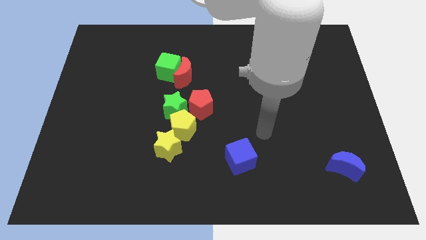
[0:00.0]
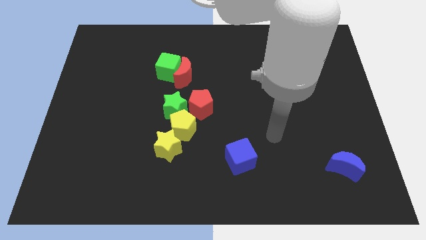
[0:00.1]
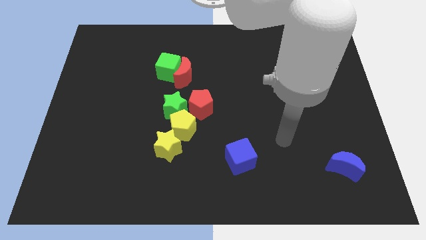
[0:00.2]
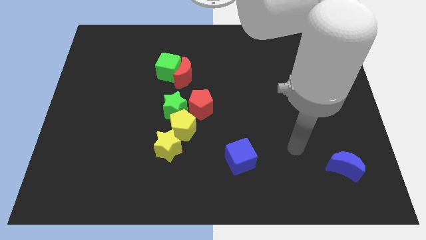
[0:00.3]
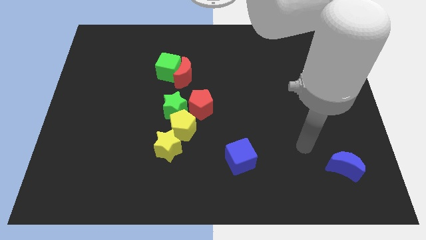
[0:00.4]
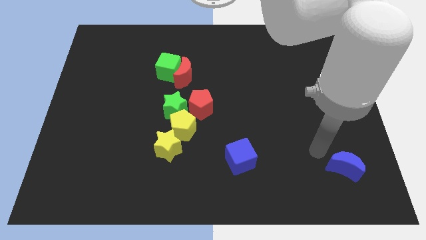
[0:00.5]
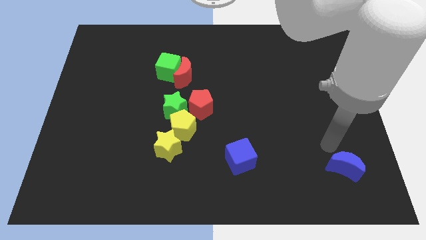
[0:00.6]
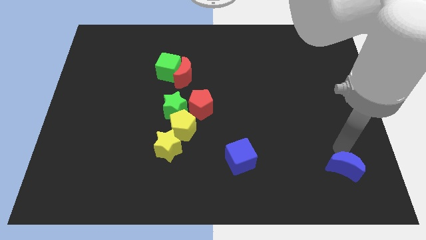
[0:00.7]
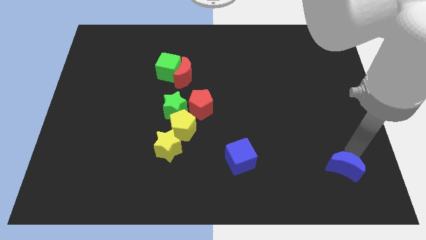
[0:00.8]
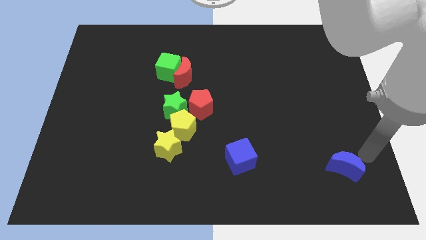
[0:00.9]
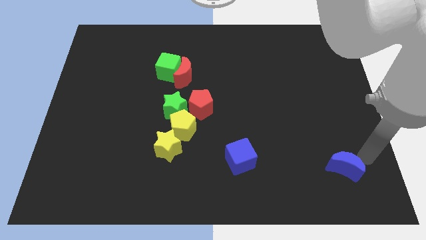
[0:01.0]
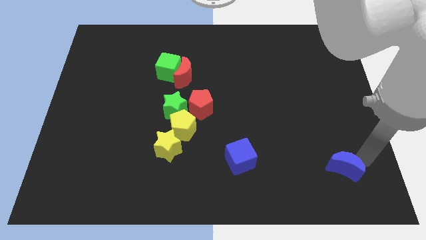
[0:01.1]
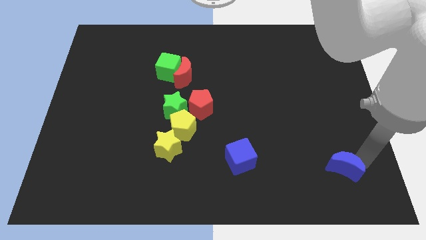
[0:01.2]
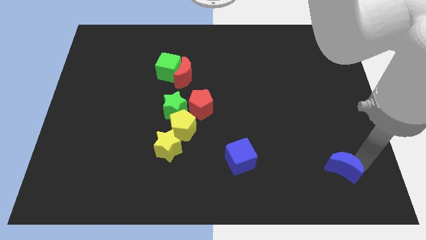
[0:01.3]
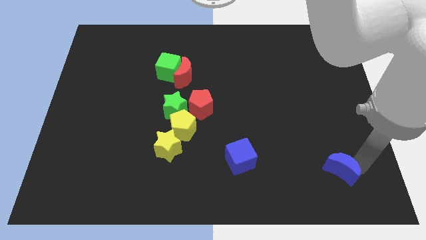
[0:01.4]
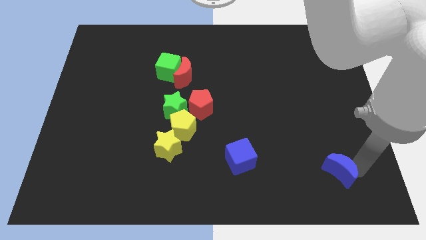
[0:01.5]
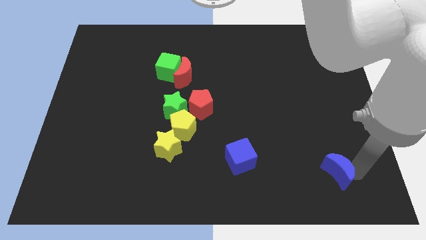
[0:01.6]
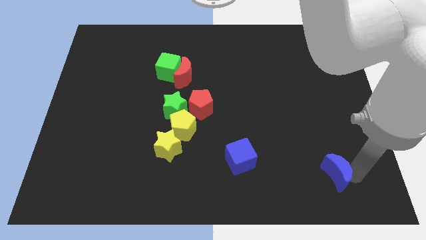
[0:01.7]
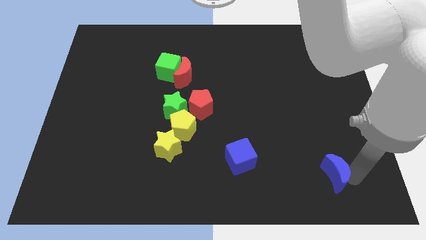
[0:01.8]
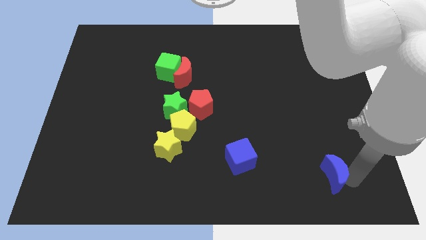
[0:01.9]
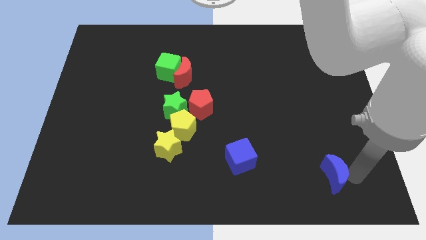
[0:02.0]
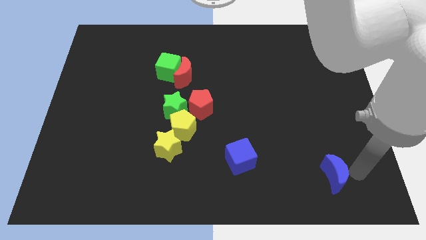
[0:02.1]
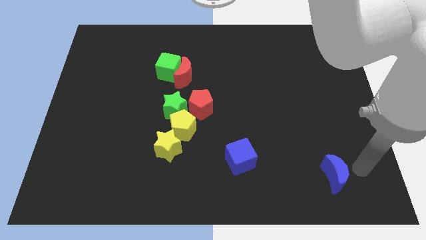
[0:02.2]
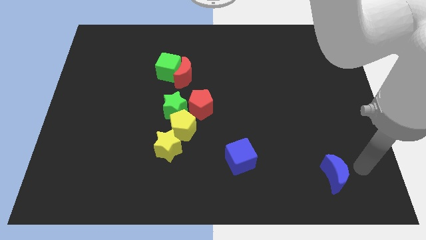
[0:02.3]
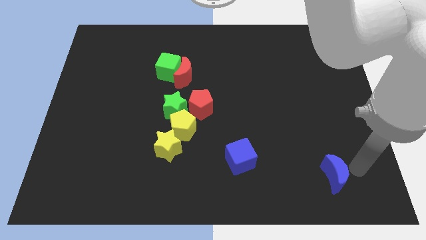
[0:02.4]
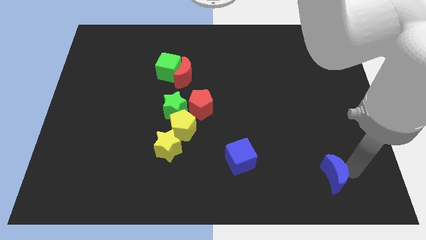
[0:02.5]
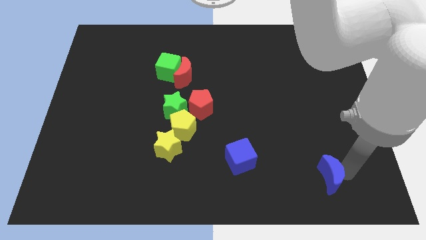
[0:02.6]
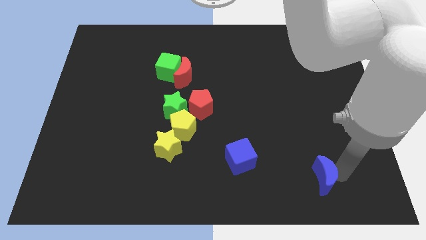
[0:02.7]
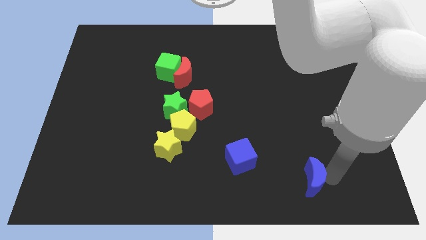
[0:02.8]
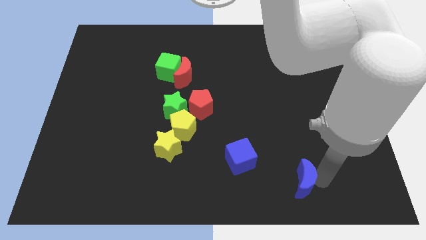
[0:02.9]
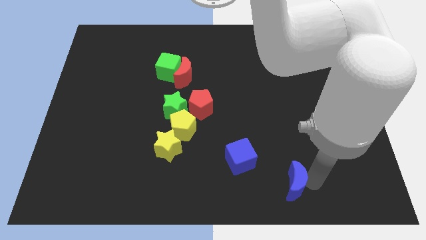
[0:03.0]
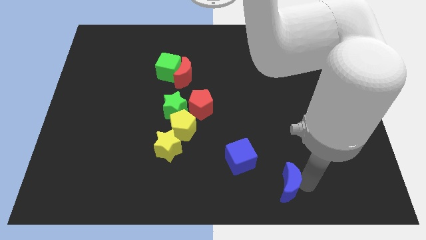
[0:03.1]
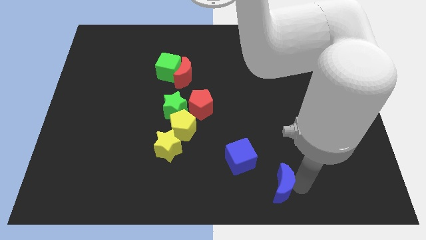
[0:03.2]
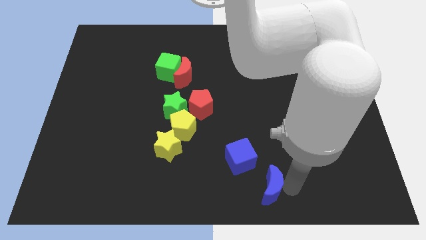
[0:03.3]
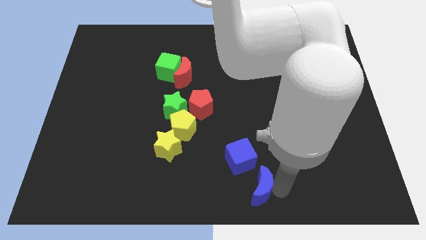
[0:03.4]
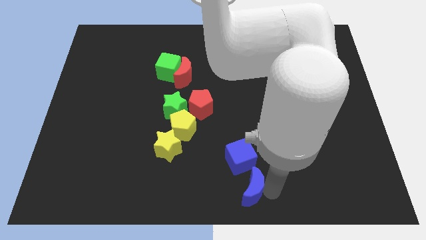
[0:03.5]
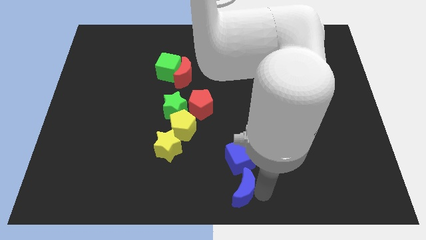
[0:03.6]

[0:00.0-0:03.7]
move the blue moon to the left

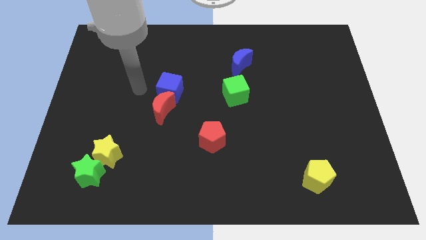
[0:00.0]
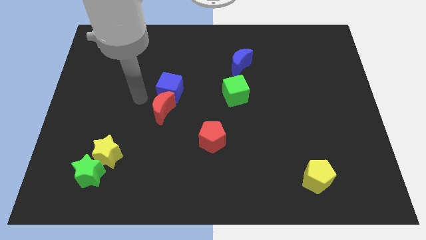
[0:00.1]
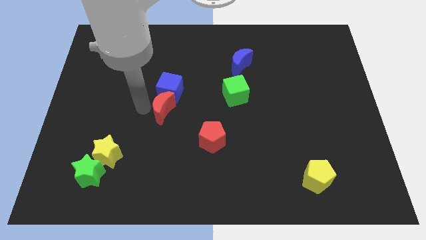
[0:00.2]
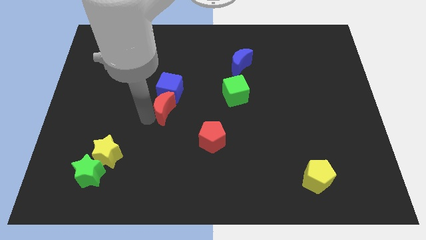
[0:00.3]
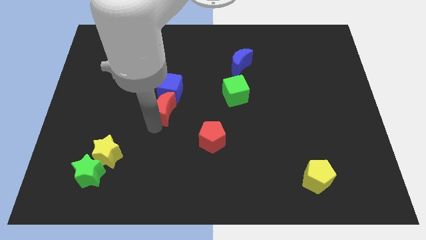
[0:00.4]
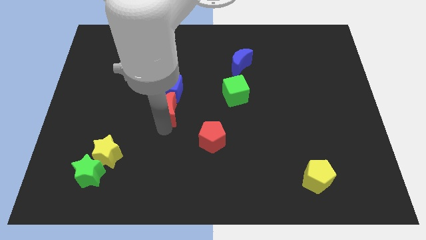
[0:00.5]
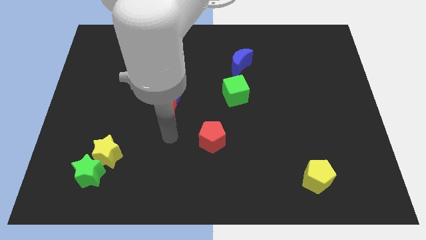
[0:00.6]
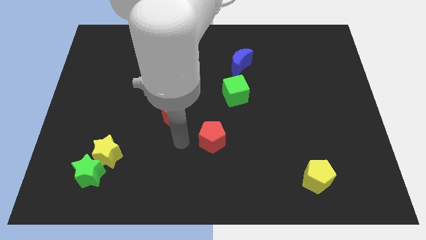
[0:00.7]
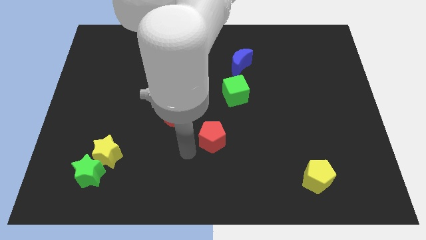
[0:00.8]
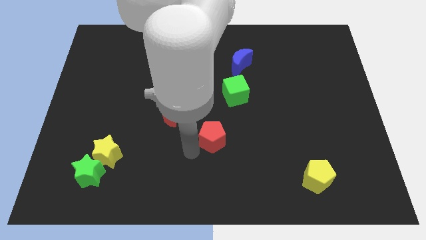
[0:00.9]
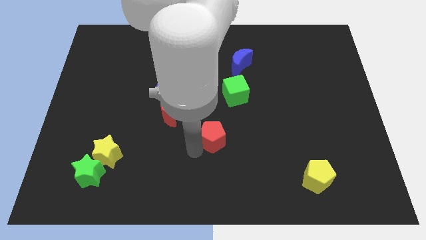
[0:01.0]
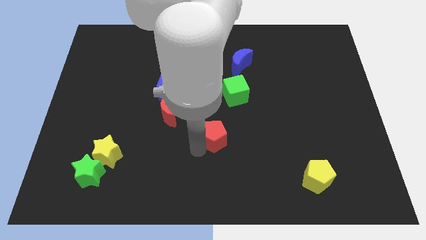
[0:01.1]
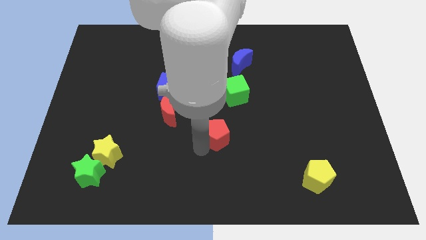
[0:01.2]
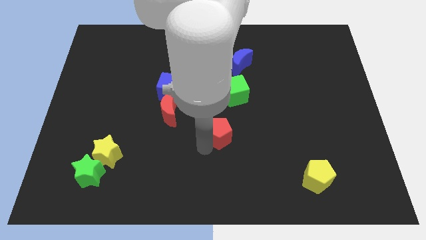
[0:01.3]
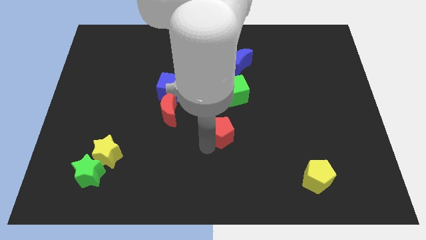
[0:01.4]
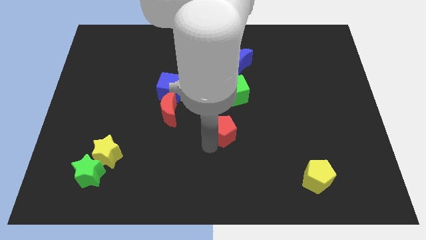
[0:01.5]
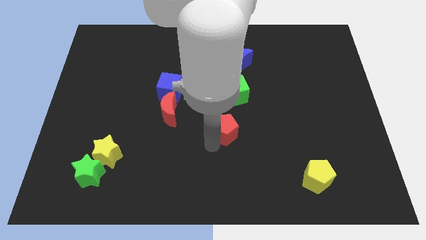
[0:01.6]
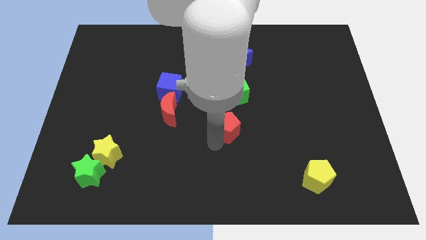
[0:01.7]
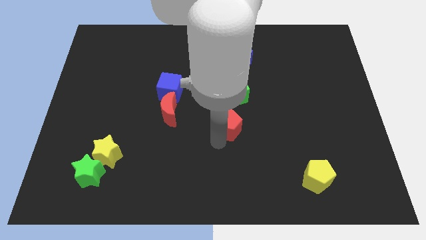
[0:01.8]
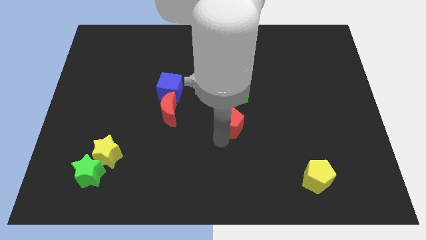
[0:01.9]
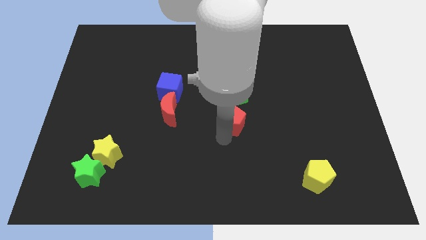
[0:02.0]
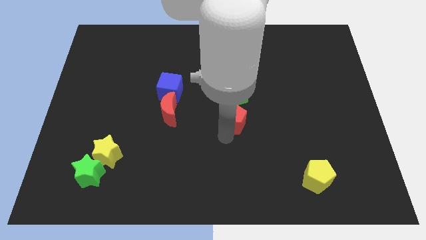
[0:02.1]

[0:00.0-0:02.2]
slightly move the red pentagon upwards and then right

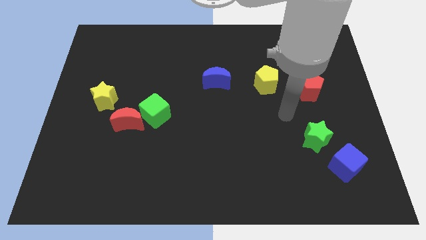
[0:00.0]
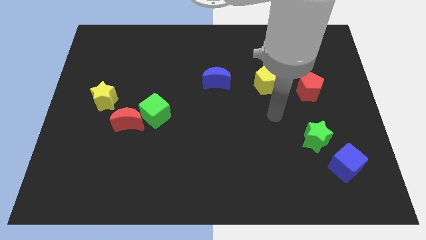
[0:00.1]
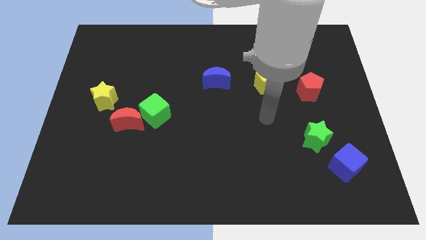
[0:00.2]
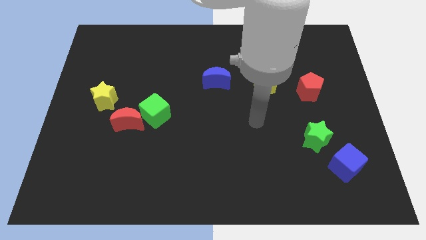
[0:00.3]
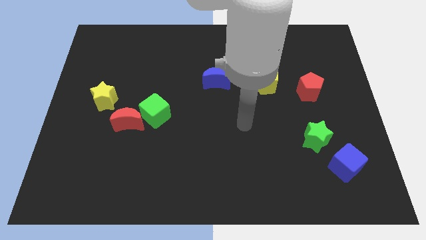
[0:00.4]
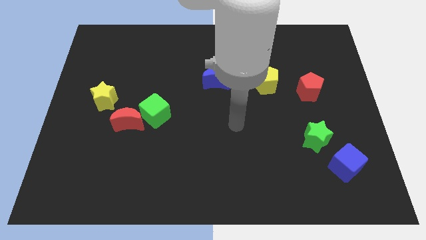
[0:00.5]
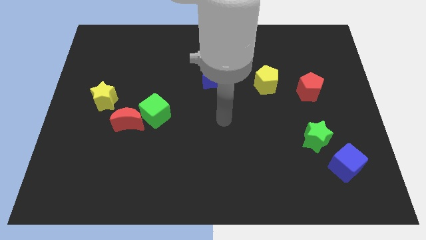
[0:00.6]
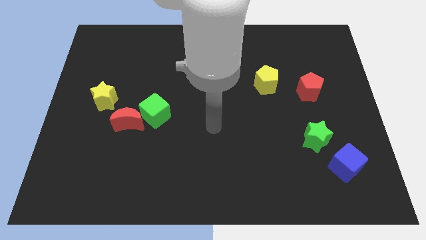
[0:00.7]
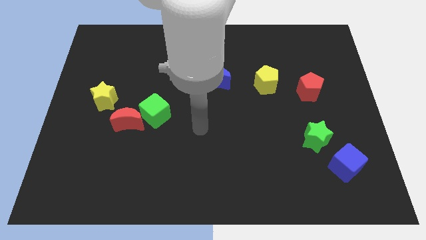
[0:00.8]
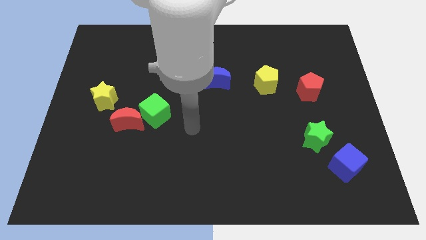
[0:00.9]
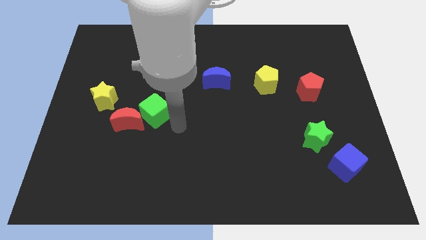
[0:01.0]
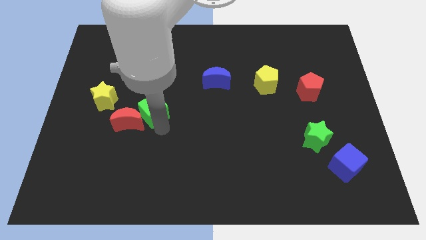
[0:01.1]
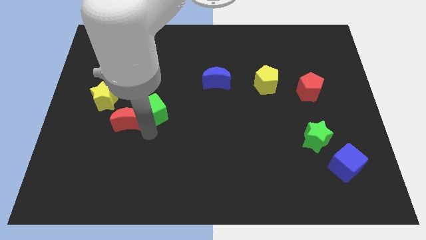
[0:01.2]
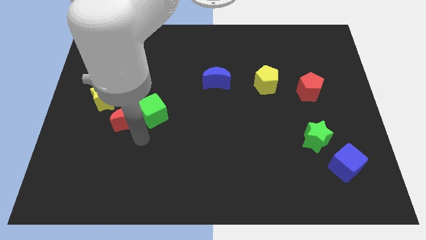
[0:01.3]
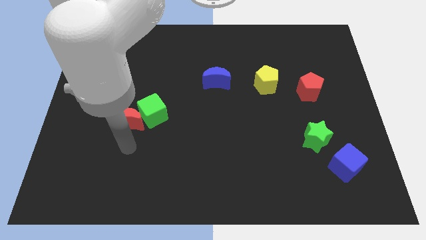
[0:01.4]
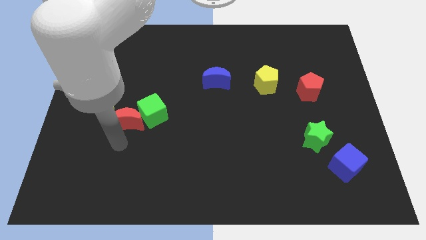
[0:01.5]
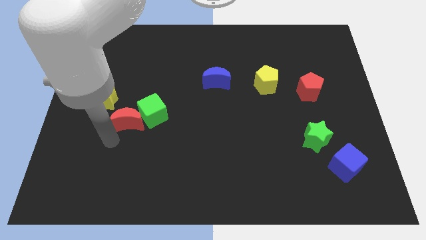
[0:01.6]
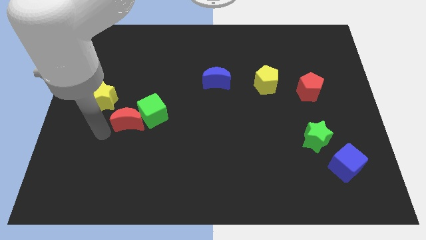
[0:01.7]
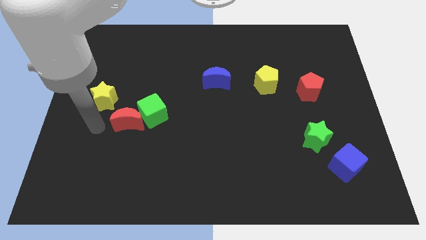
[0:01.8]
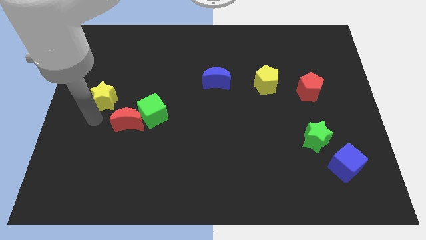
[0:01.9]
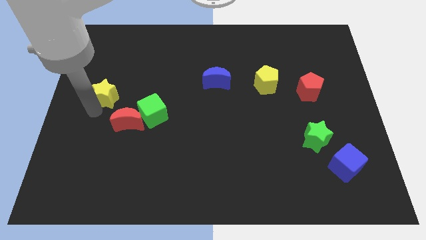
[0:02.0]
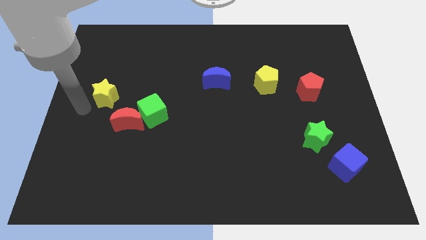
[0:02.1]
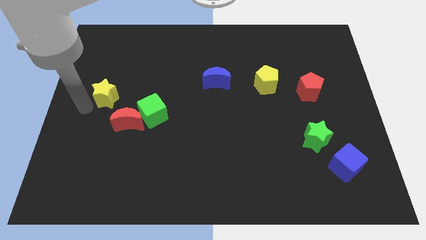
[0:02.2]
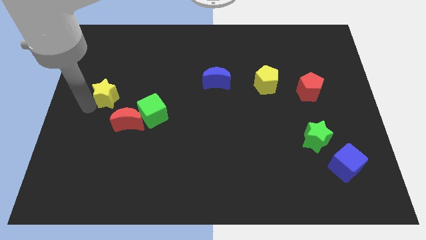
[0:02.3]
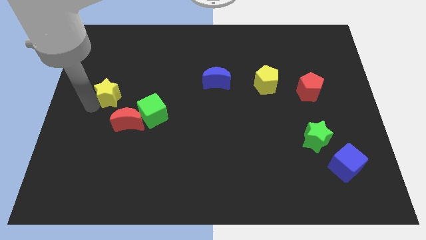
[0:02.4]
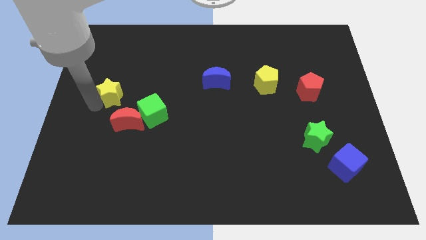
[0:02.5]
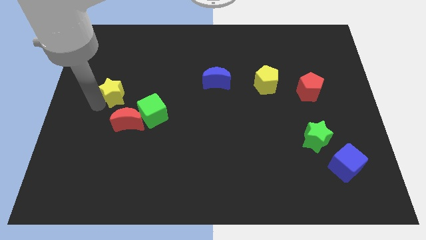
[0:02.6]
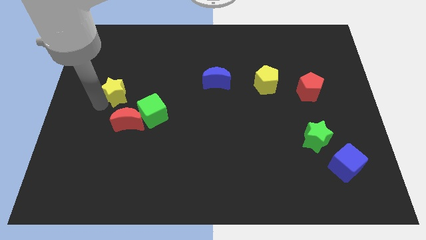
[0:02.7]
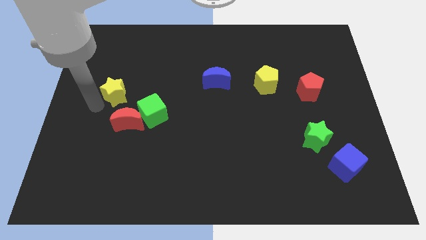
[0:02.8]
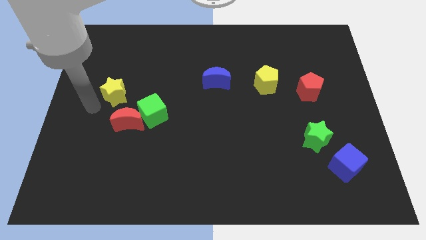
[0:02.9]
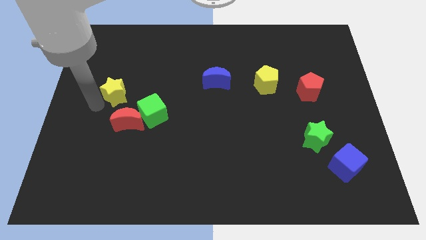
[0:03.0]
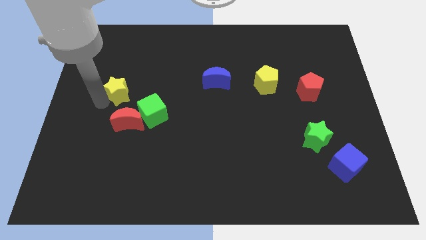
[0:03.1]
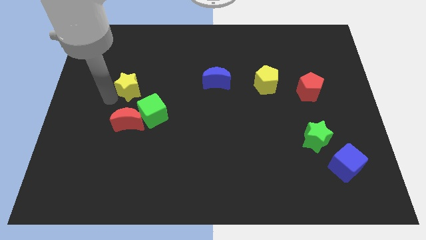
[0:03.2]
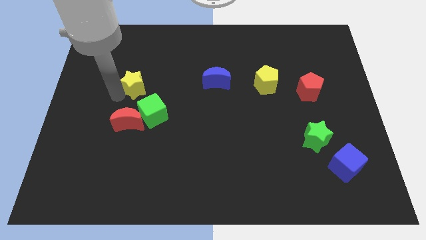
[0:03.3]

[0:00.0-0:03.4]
slide the yellow star slightly upwards and to the right diagonally
